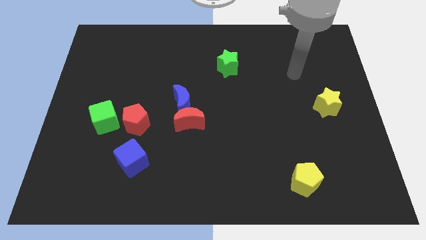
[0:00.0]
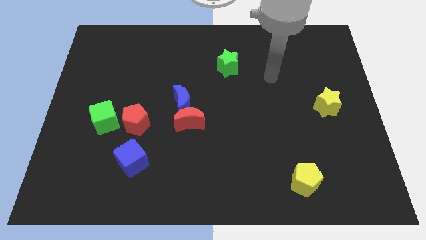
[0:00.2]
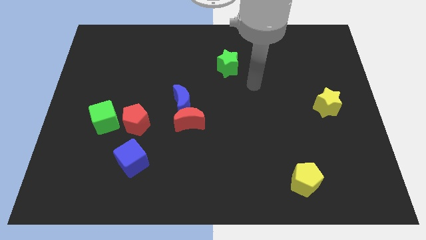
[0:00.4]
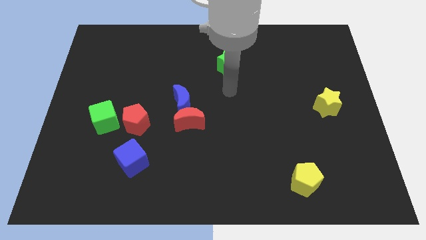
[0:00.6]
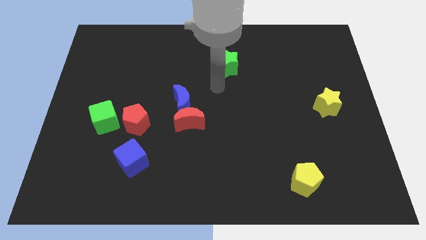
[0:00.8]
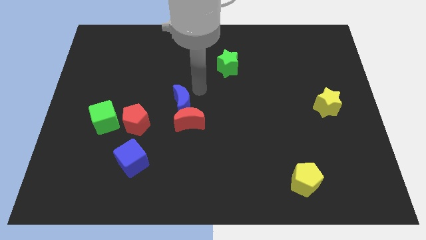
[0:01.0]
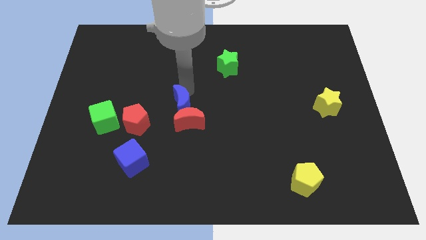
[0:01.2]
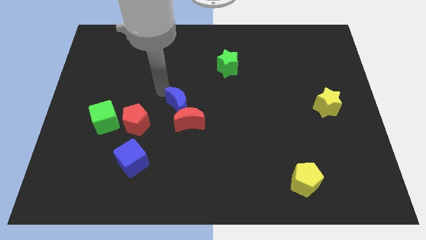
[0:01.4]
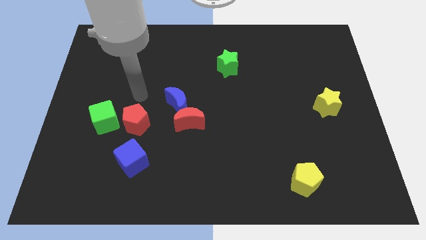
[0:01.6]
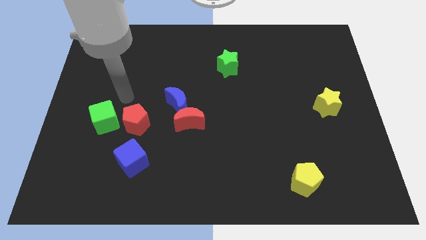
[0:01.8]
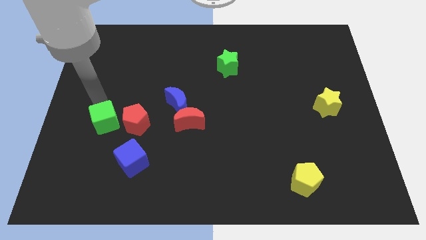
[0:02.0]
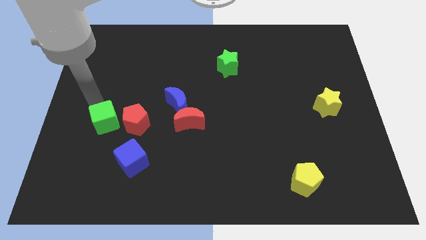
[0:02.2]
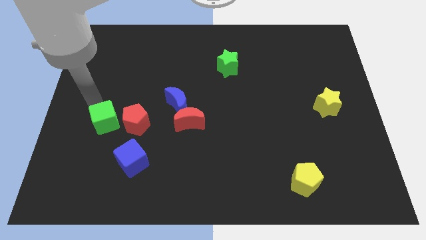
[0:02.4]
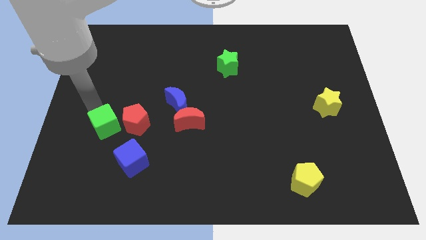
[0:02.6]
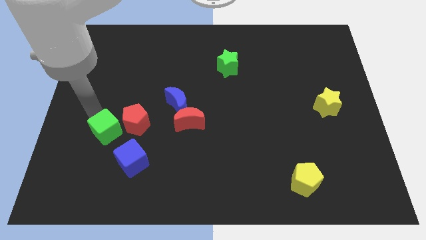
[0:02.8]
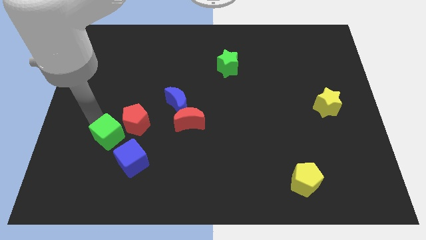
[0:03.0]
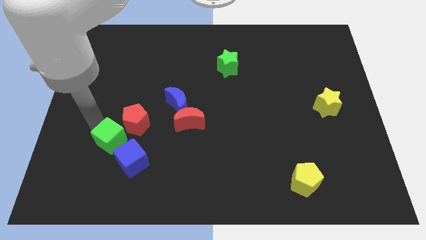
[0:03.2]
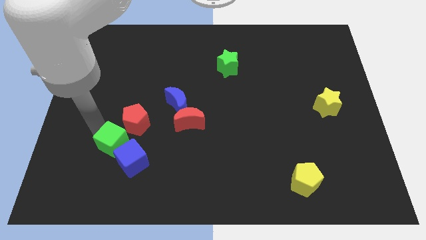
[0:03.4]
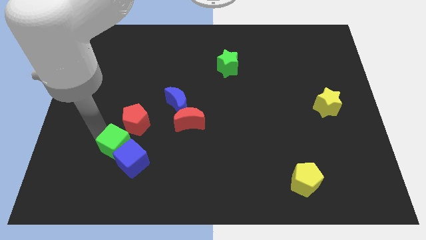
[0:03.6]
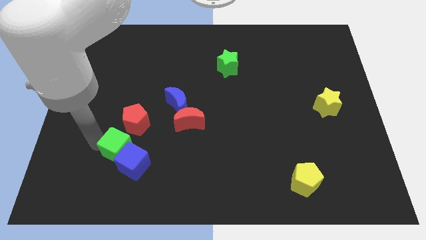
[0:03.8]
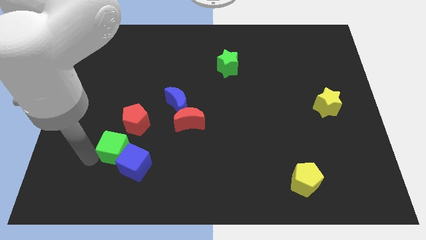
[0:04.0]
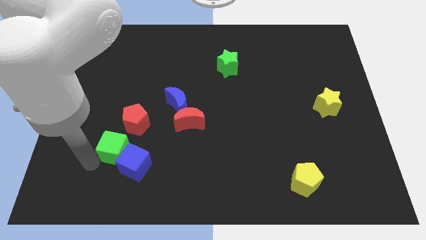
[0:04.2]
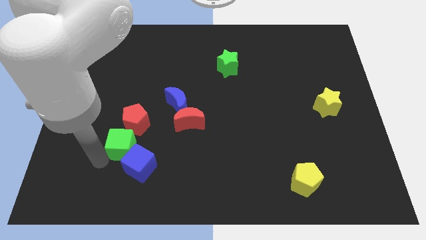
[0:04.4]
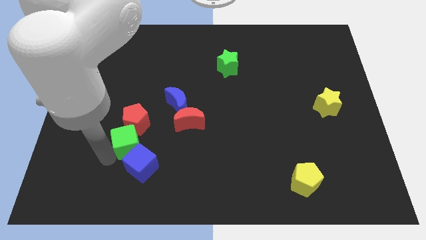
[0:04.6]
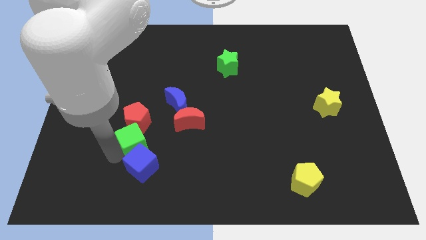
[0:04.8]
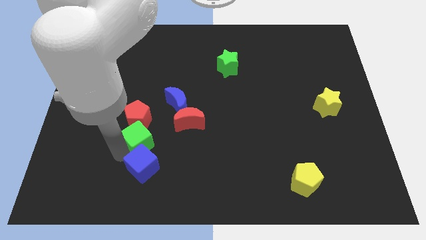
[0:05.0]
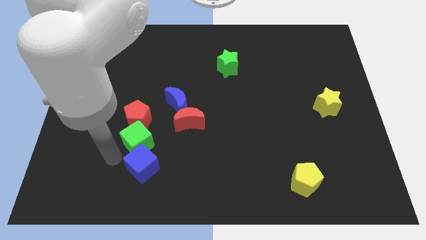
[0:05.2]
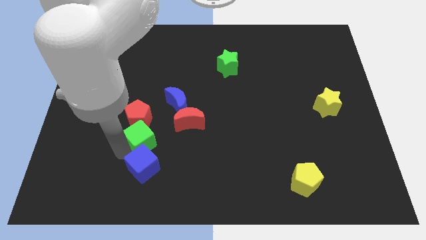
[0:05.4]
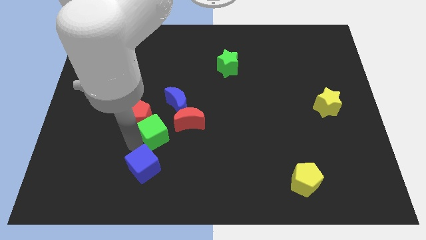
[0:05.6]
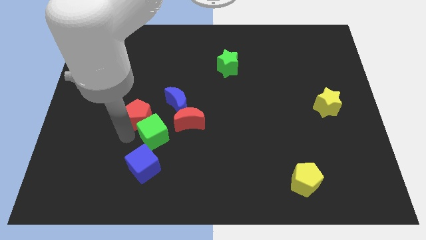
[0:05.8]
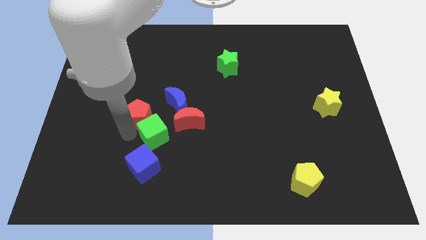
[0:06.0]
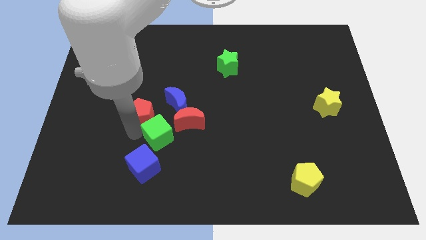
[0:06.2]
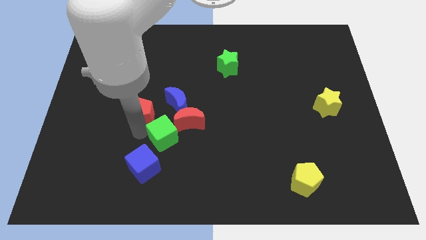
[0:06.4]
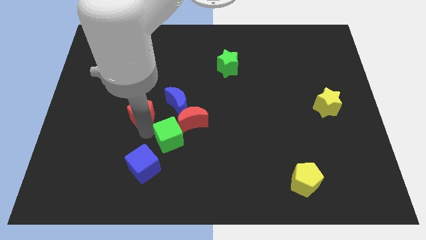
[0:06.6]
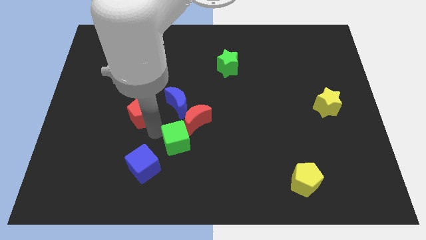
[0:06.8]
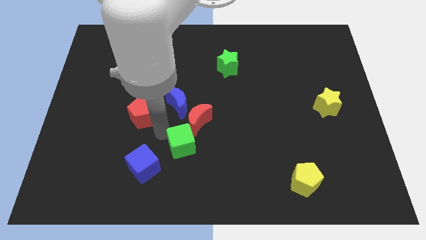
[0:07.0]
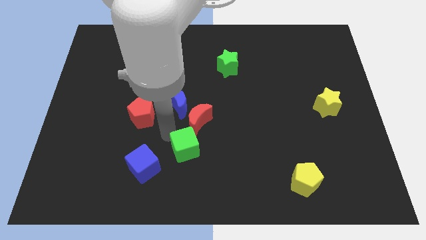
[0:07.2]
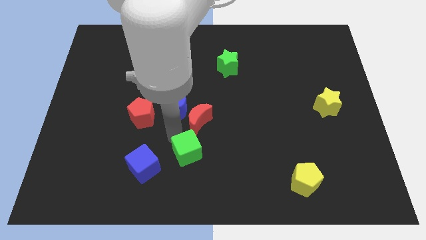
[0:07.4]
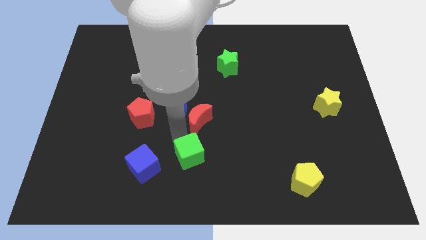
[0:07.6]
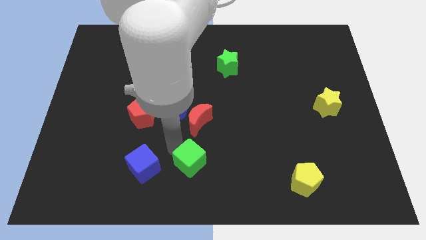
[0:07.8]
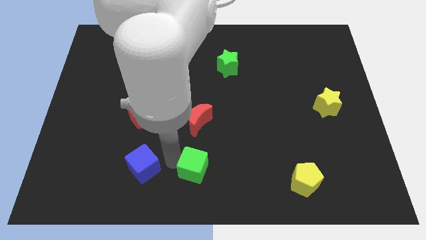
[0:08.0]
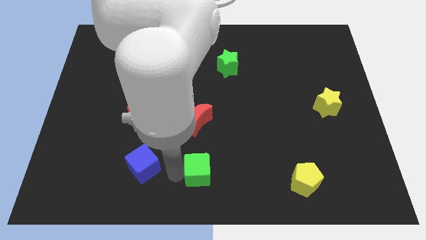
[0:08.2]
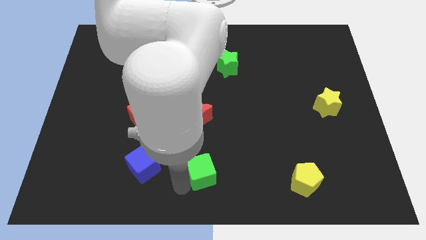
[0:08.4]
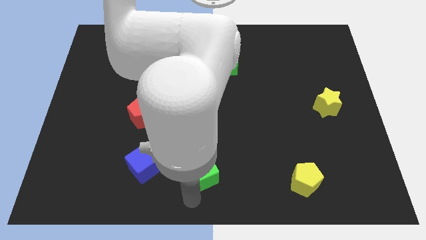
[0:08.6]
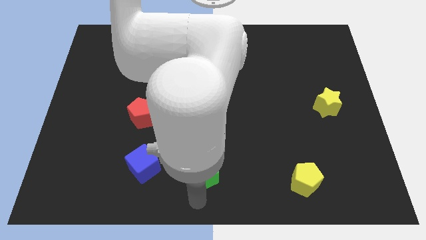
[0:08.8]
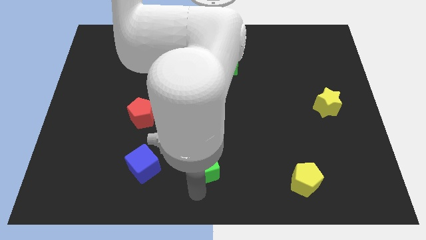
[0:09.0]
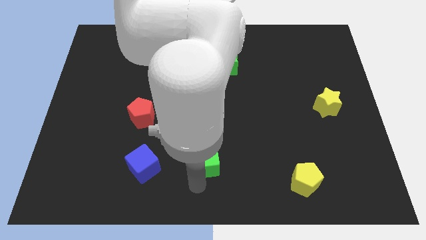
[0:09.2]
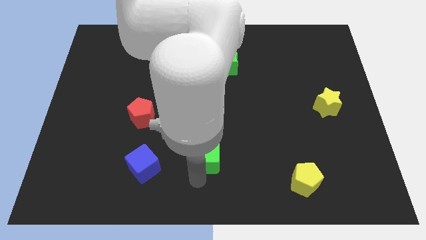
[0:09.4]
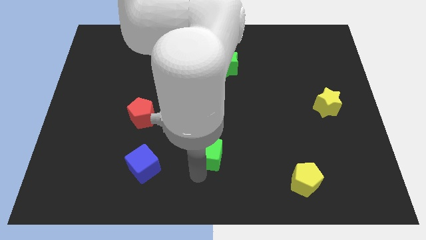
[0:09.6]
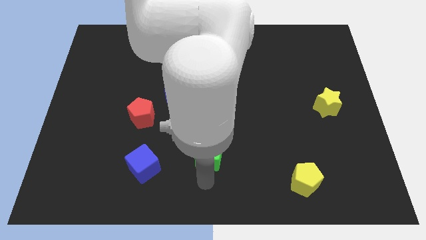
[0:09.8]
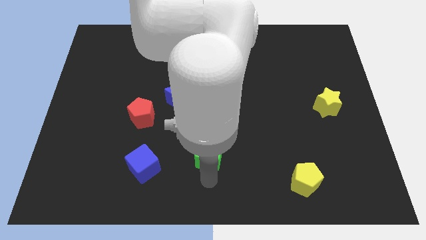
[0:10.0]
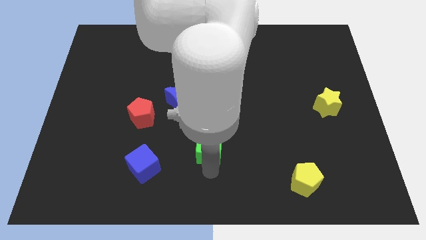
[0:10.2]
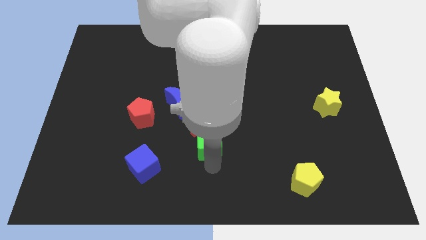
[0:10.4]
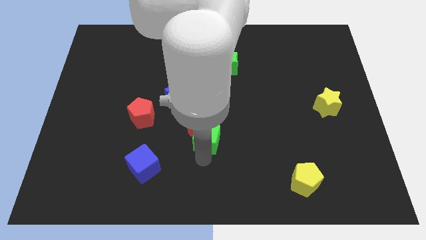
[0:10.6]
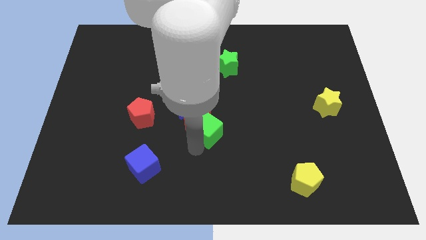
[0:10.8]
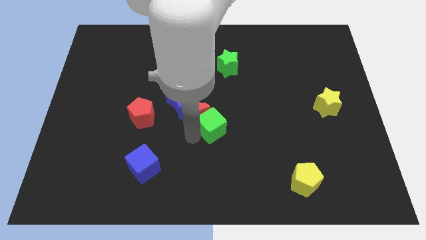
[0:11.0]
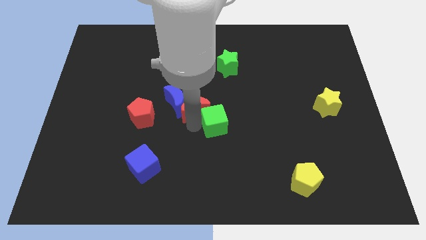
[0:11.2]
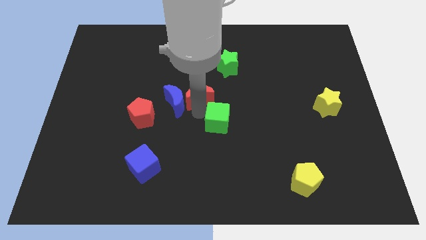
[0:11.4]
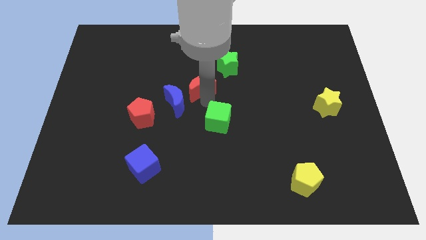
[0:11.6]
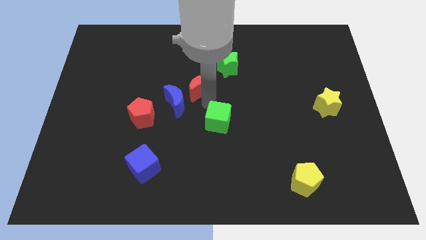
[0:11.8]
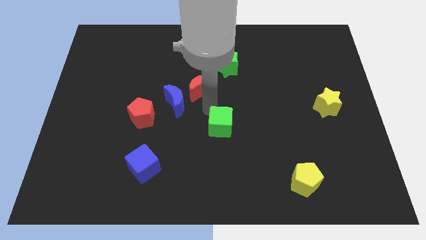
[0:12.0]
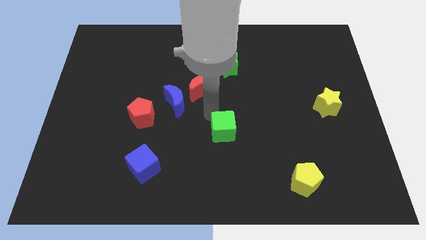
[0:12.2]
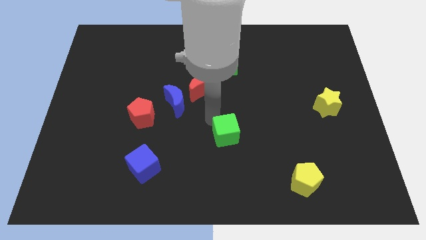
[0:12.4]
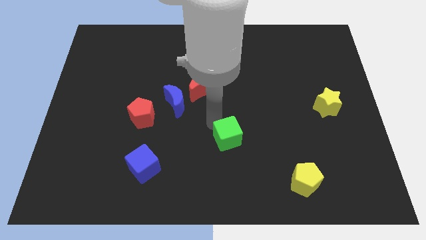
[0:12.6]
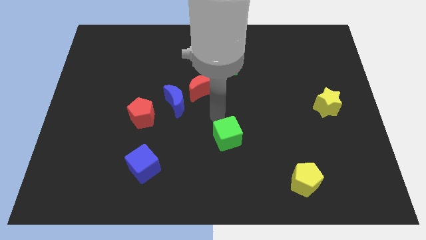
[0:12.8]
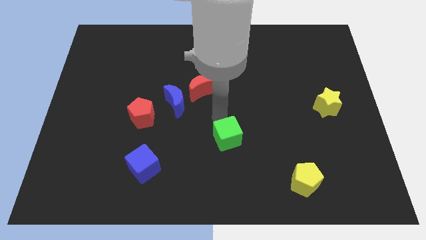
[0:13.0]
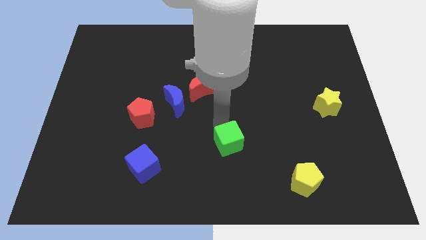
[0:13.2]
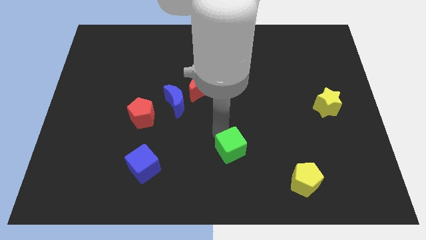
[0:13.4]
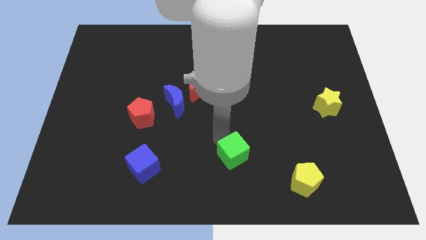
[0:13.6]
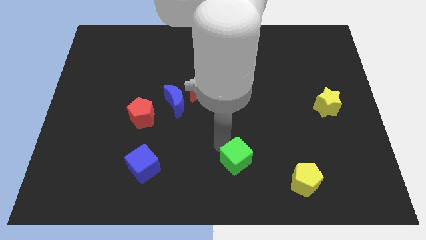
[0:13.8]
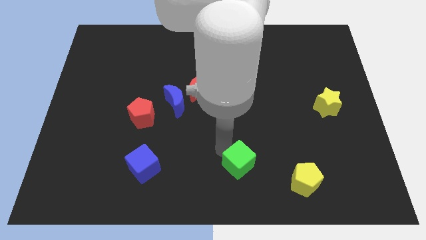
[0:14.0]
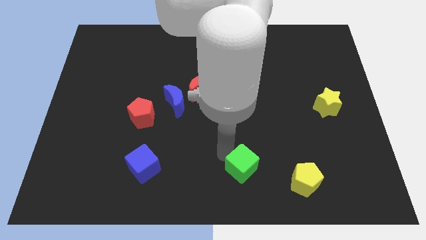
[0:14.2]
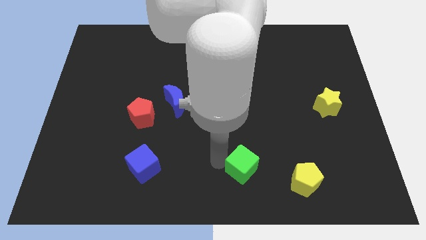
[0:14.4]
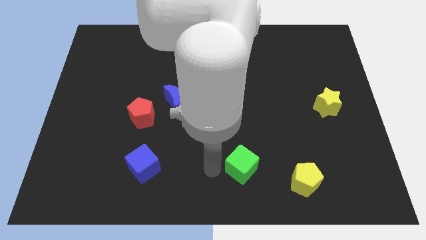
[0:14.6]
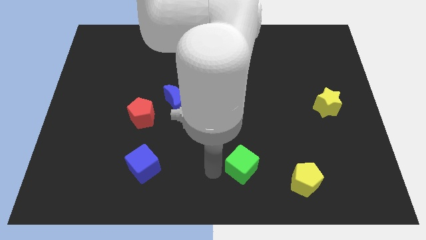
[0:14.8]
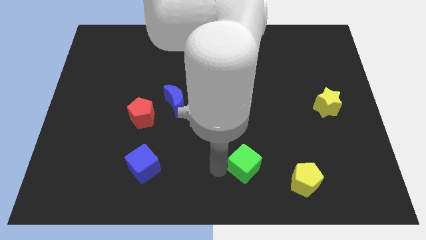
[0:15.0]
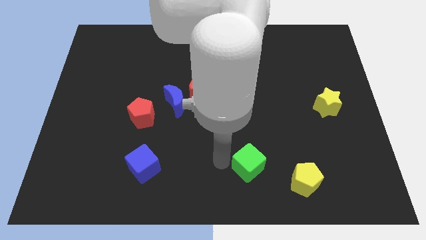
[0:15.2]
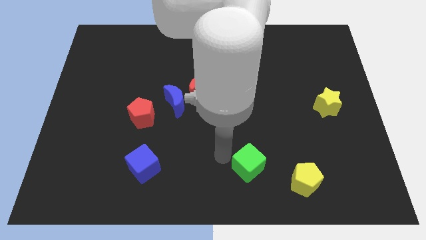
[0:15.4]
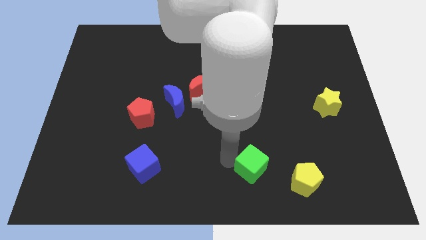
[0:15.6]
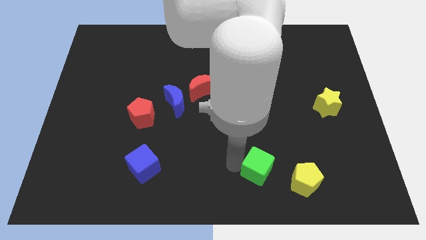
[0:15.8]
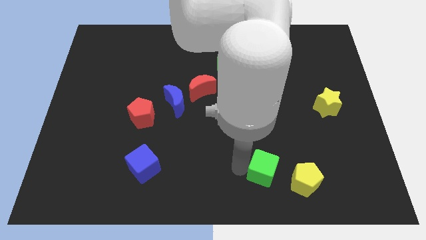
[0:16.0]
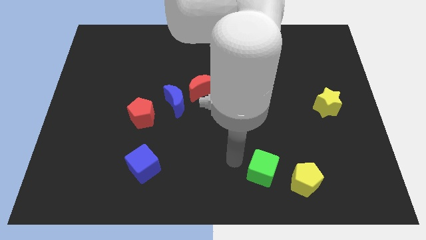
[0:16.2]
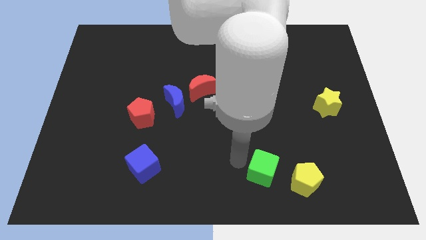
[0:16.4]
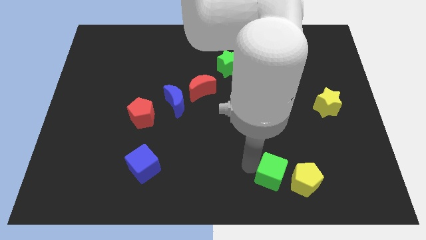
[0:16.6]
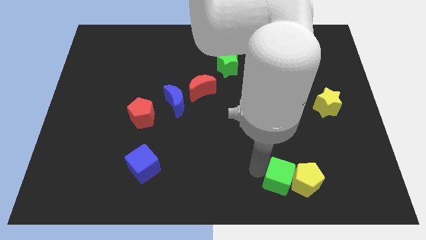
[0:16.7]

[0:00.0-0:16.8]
move the green cube next to the yellow pentagon
